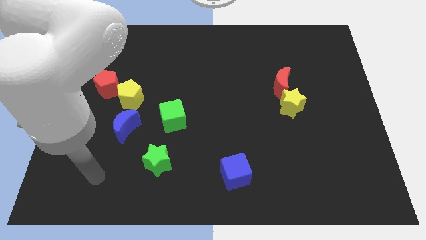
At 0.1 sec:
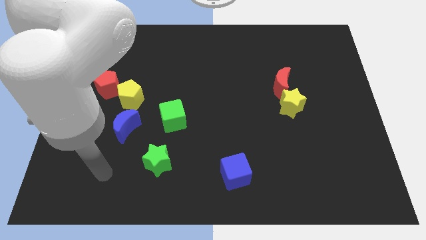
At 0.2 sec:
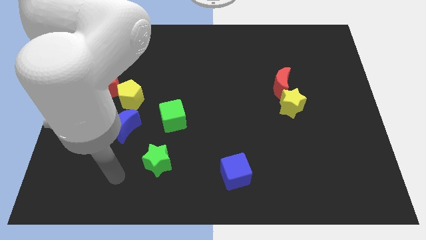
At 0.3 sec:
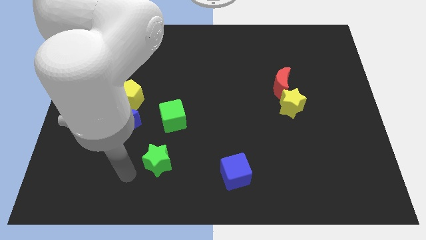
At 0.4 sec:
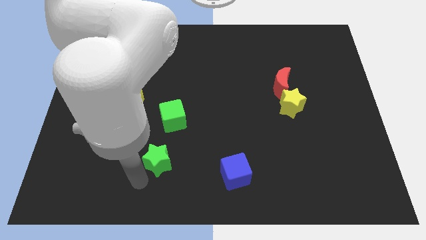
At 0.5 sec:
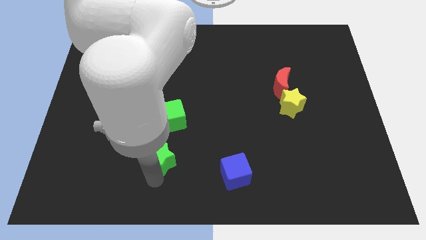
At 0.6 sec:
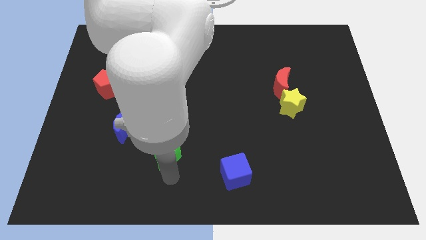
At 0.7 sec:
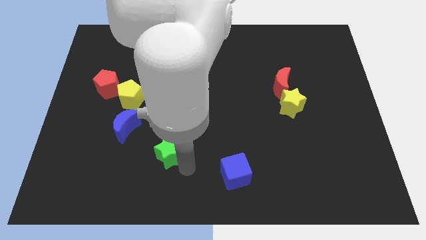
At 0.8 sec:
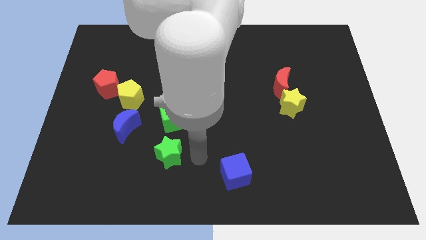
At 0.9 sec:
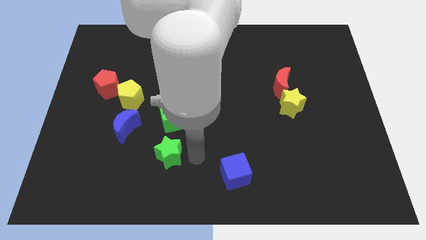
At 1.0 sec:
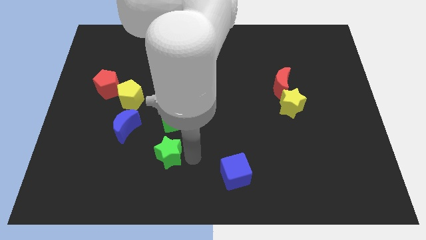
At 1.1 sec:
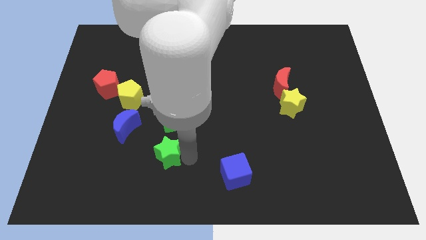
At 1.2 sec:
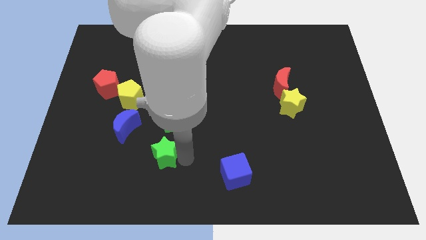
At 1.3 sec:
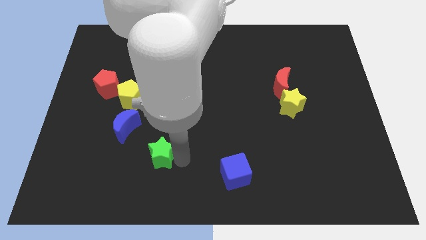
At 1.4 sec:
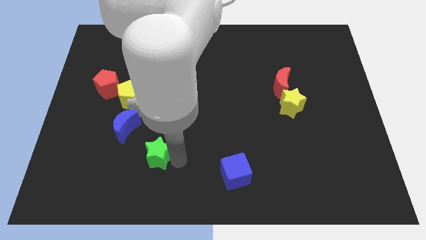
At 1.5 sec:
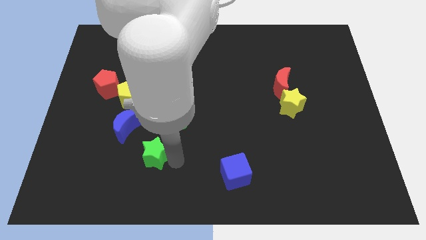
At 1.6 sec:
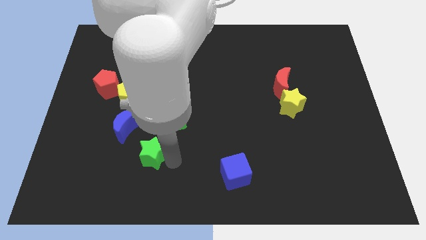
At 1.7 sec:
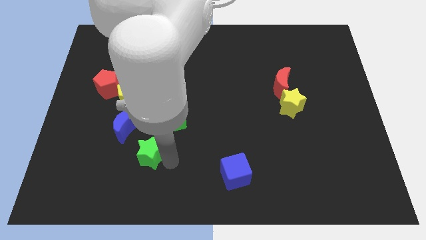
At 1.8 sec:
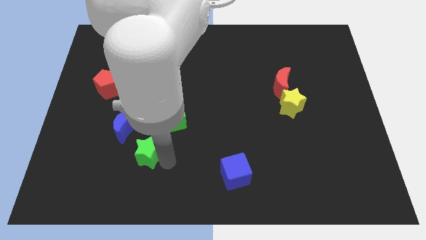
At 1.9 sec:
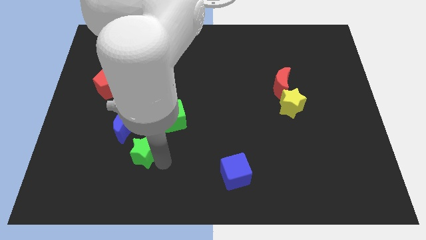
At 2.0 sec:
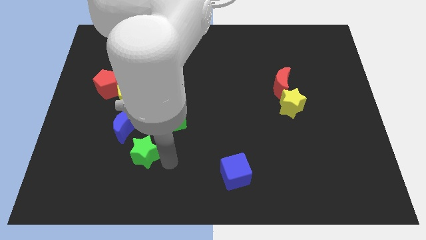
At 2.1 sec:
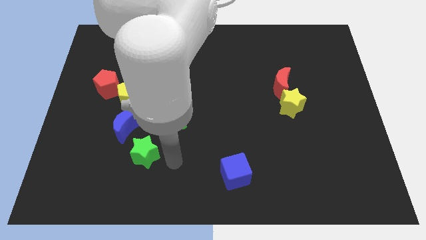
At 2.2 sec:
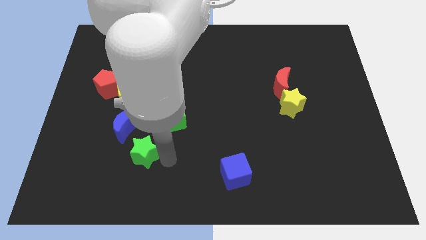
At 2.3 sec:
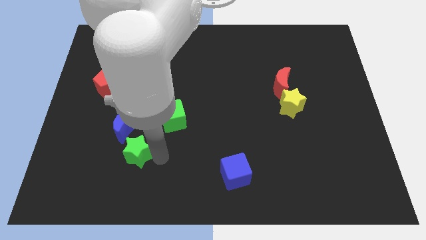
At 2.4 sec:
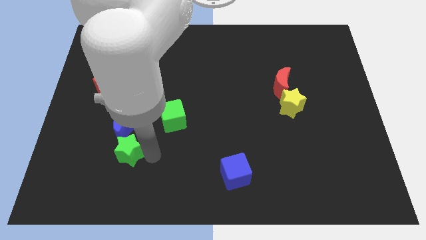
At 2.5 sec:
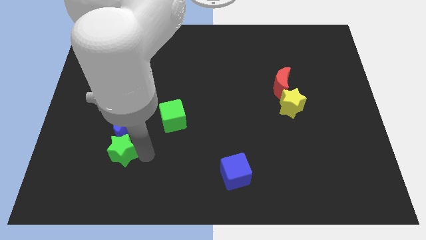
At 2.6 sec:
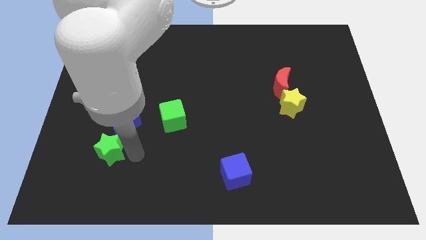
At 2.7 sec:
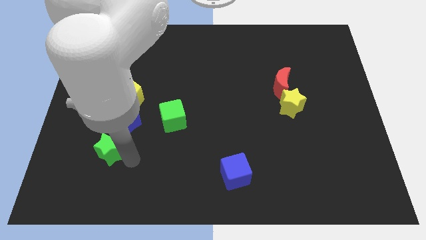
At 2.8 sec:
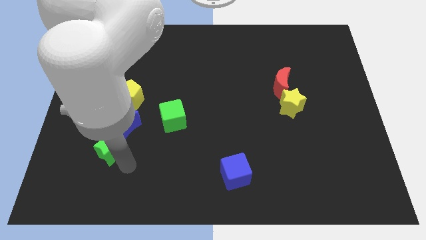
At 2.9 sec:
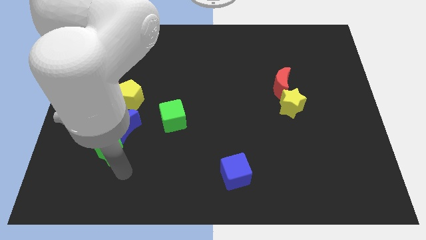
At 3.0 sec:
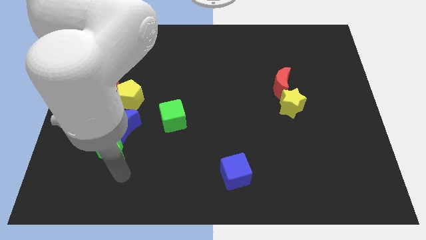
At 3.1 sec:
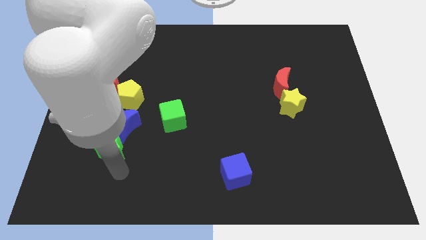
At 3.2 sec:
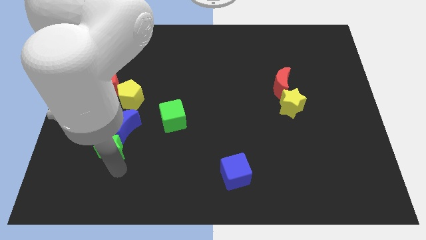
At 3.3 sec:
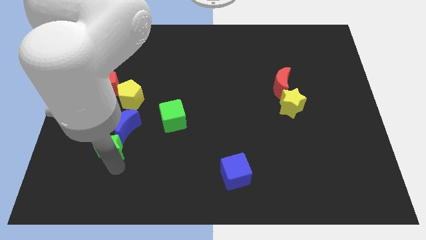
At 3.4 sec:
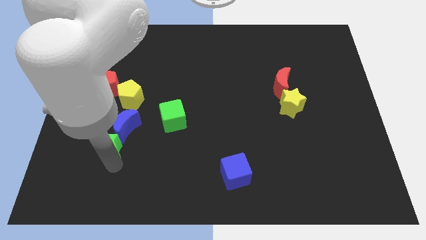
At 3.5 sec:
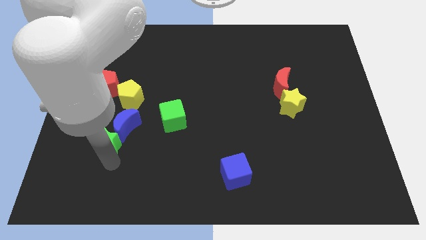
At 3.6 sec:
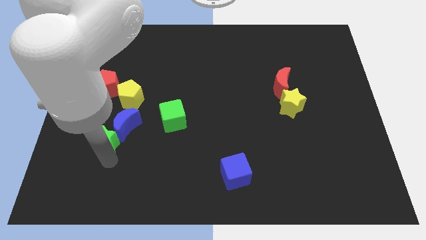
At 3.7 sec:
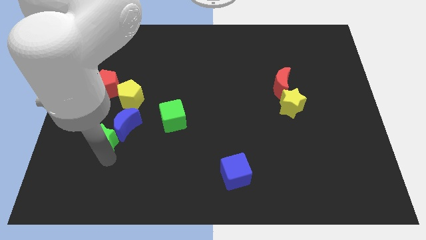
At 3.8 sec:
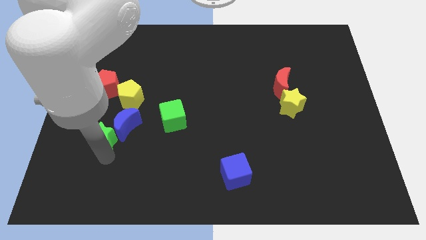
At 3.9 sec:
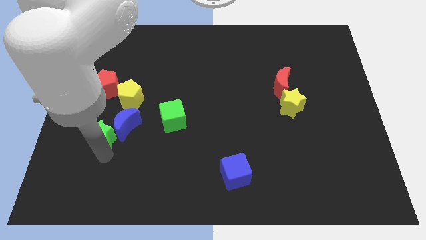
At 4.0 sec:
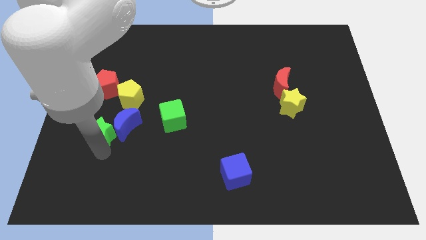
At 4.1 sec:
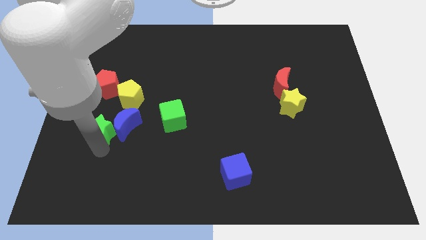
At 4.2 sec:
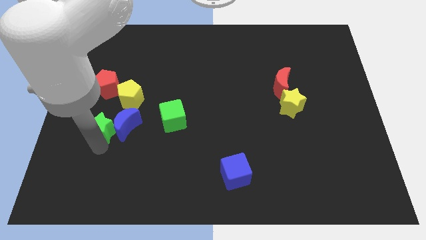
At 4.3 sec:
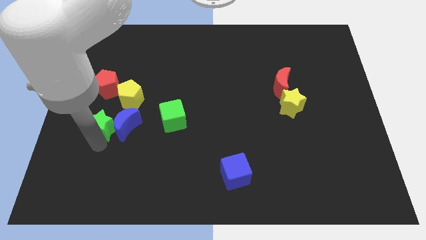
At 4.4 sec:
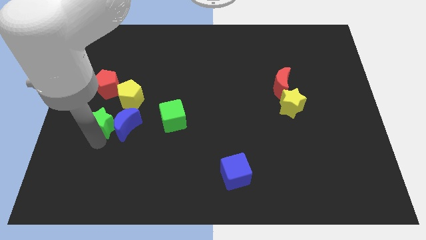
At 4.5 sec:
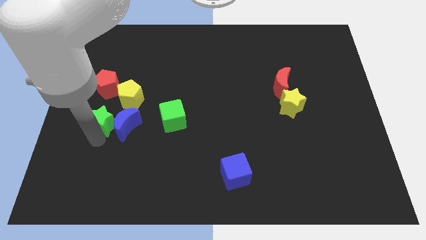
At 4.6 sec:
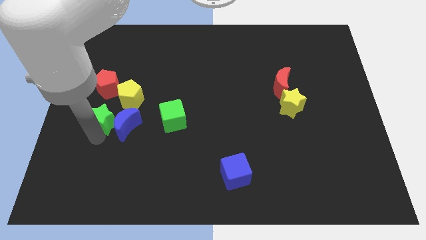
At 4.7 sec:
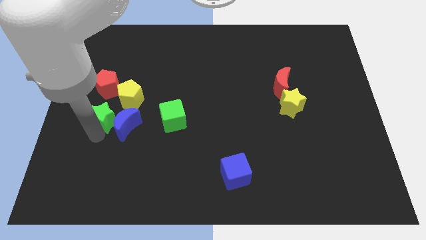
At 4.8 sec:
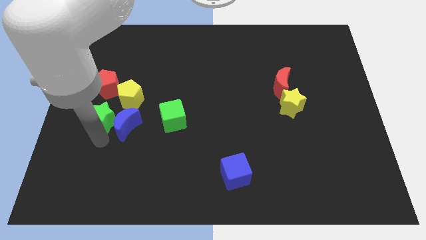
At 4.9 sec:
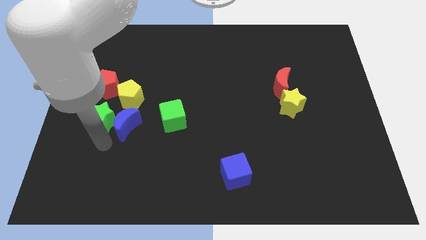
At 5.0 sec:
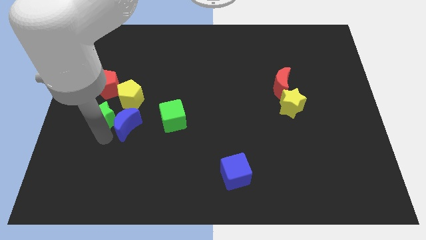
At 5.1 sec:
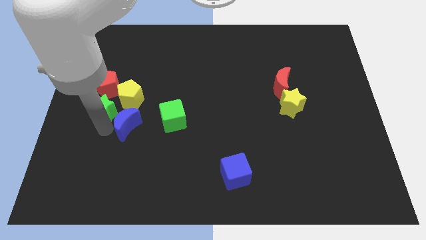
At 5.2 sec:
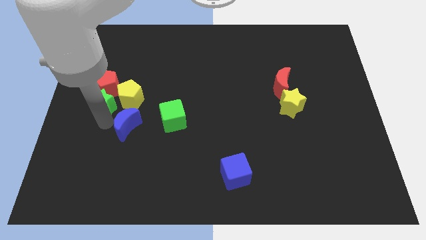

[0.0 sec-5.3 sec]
slide the green star towards the red pentagon
